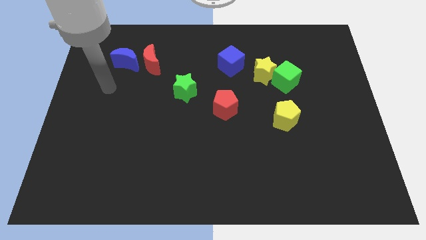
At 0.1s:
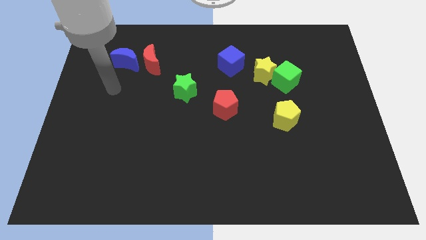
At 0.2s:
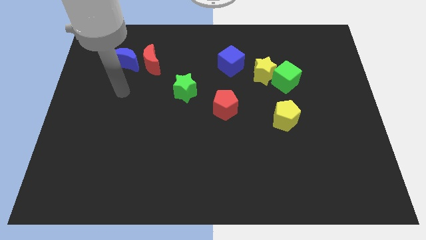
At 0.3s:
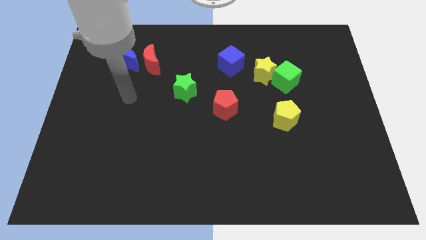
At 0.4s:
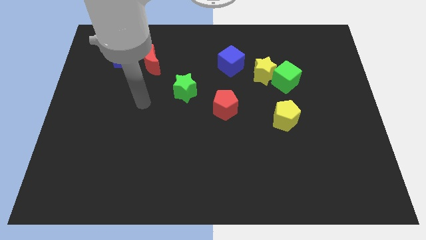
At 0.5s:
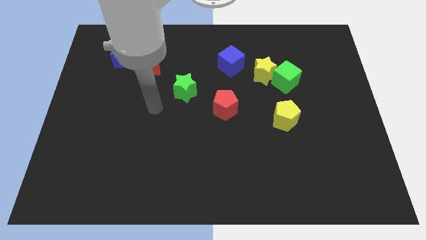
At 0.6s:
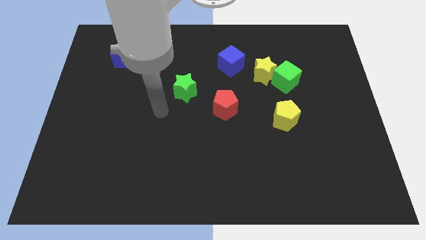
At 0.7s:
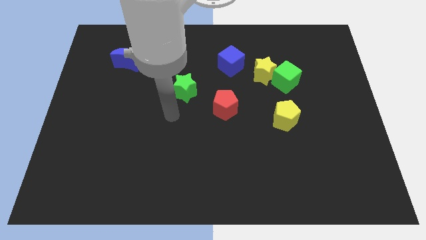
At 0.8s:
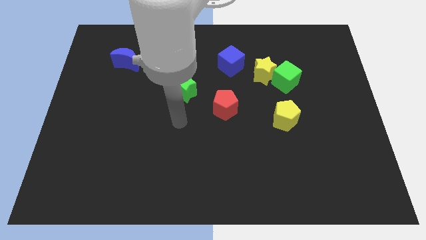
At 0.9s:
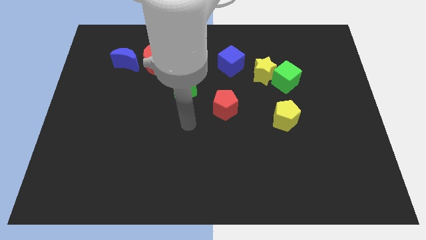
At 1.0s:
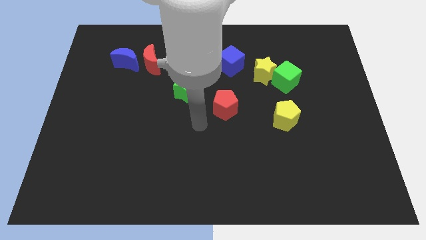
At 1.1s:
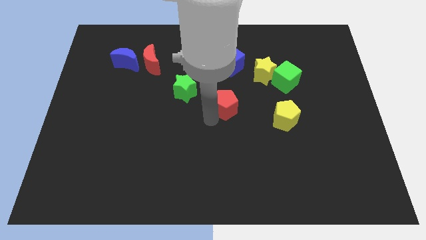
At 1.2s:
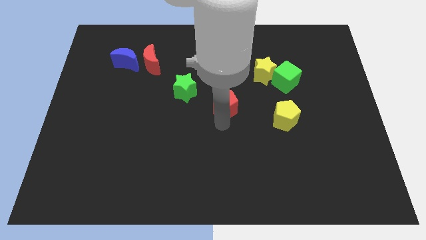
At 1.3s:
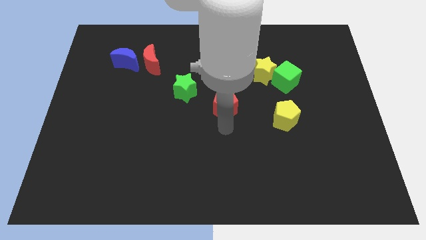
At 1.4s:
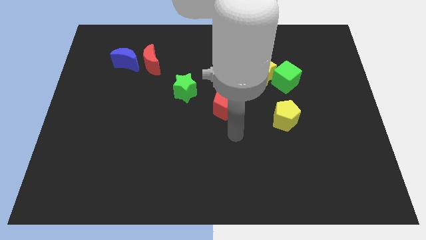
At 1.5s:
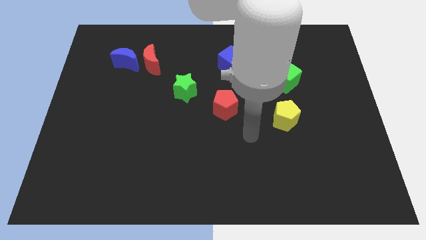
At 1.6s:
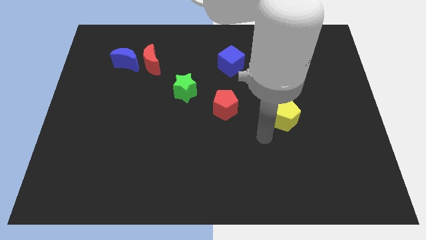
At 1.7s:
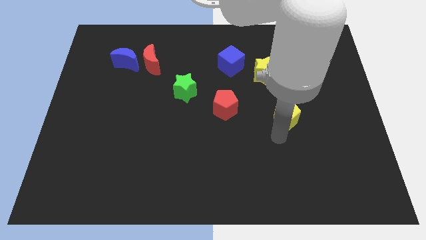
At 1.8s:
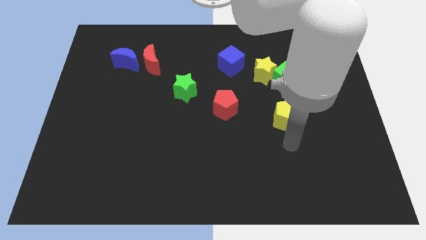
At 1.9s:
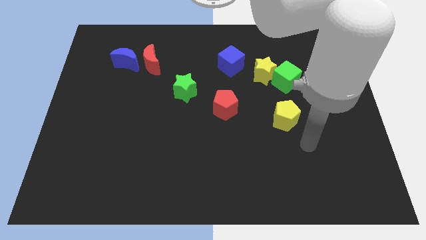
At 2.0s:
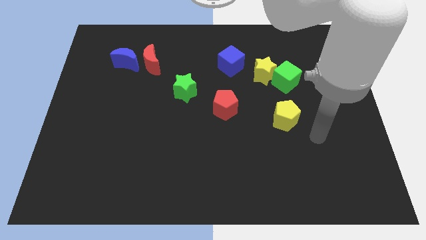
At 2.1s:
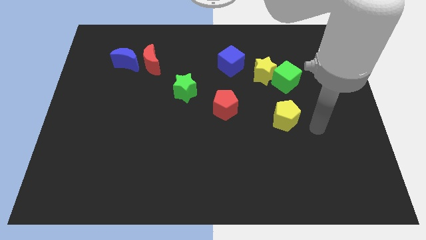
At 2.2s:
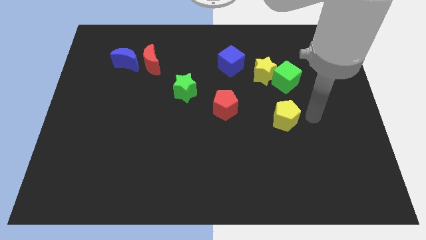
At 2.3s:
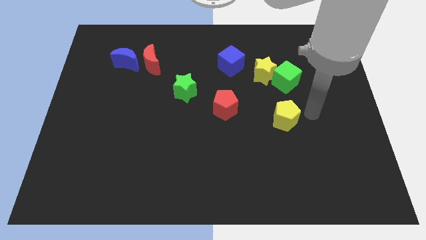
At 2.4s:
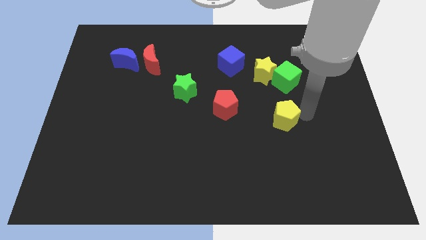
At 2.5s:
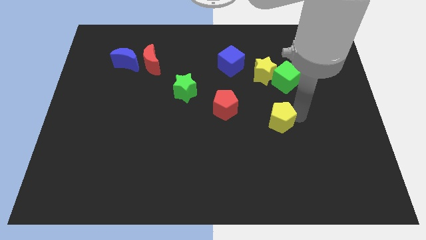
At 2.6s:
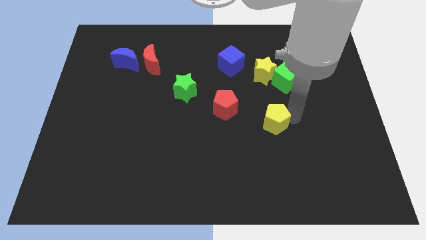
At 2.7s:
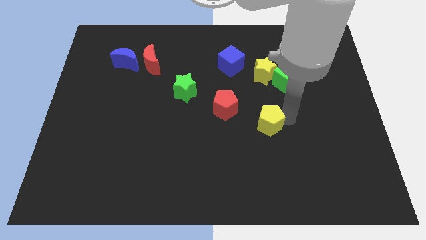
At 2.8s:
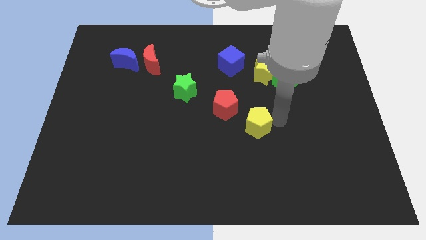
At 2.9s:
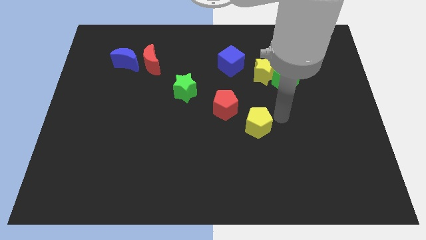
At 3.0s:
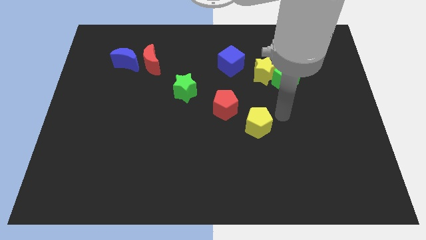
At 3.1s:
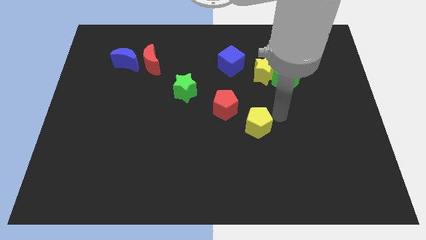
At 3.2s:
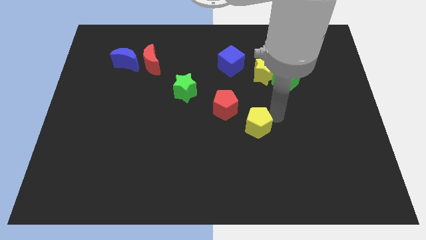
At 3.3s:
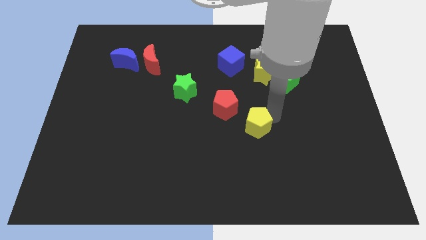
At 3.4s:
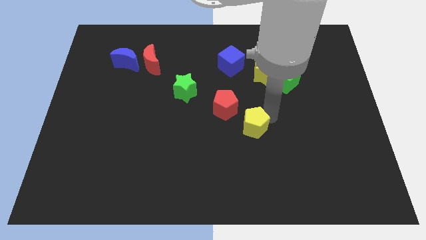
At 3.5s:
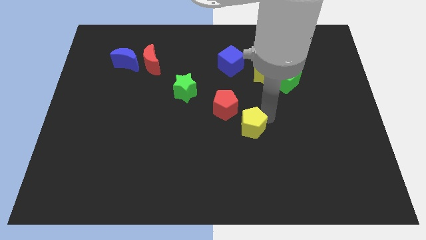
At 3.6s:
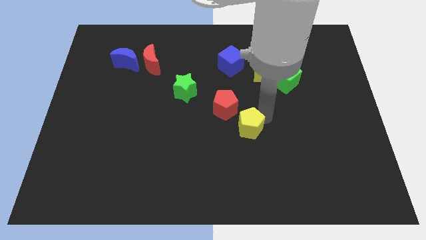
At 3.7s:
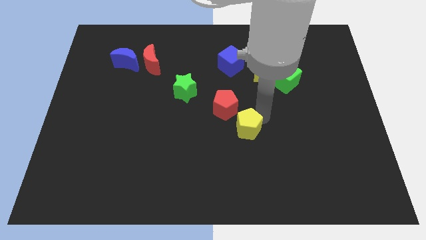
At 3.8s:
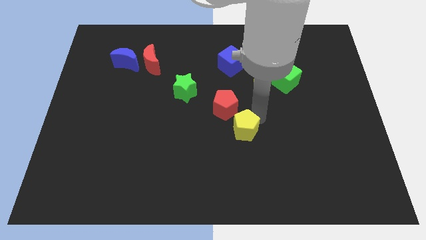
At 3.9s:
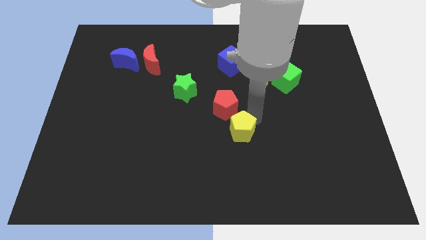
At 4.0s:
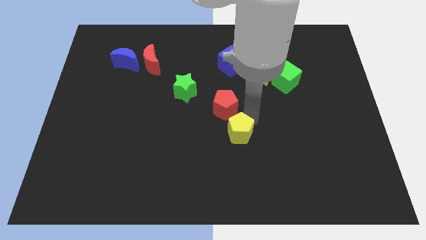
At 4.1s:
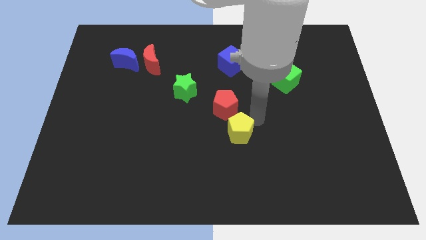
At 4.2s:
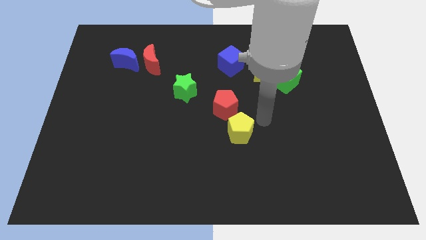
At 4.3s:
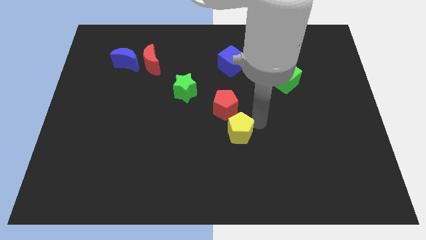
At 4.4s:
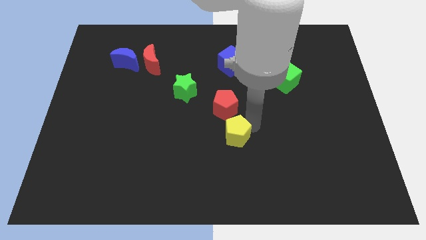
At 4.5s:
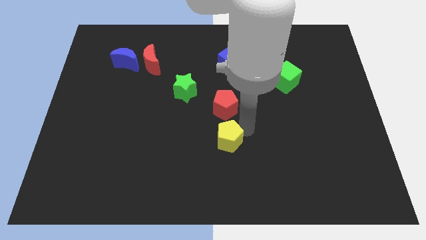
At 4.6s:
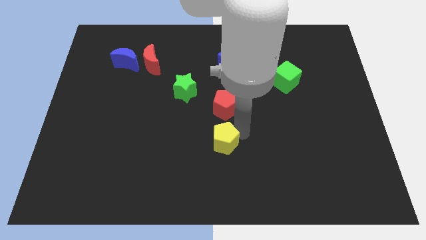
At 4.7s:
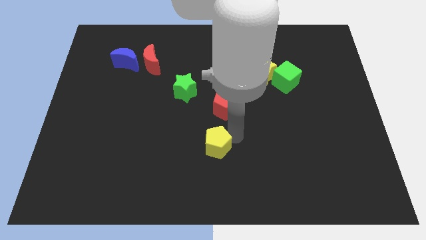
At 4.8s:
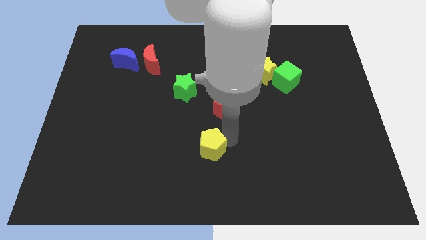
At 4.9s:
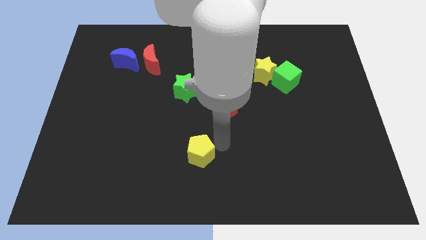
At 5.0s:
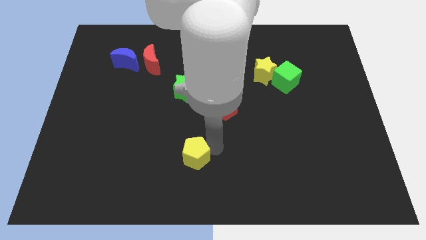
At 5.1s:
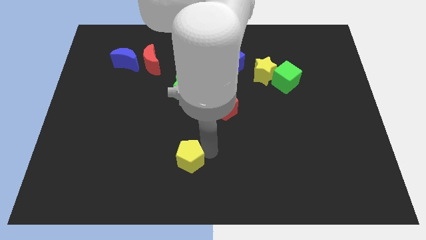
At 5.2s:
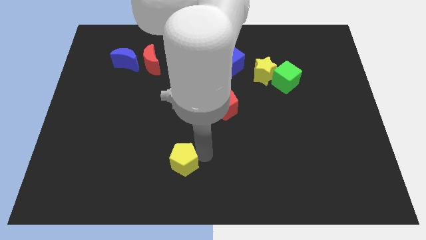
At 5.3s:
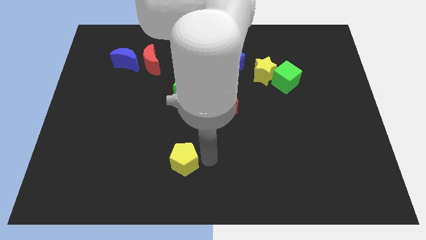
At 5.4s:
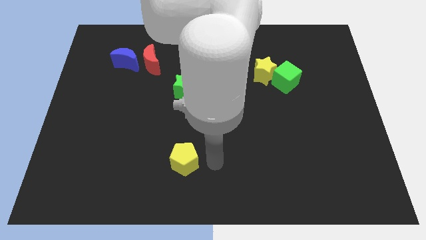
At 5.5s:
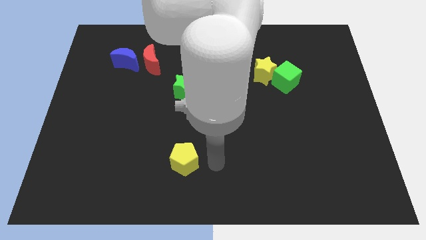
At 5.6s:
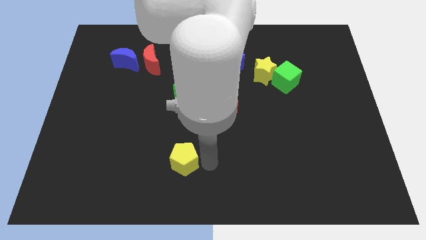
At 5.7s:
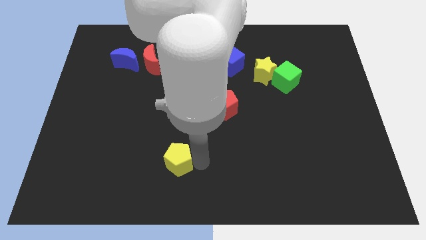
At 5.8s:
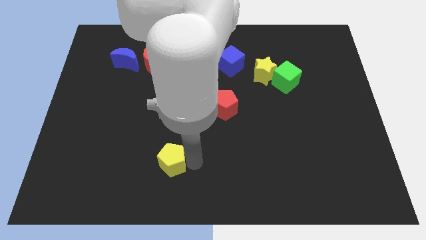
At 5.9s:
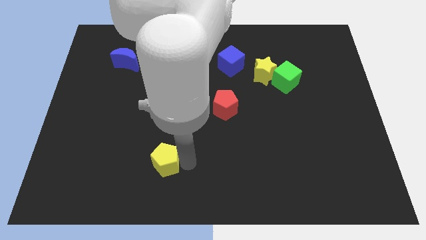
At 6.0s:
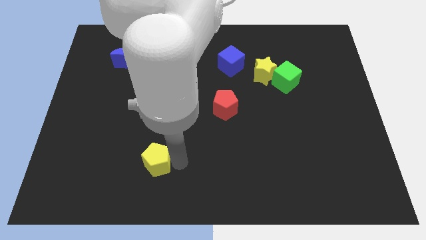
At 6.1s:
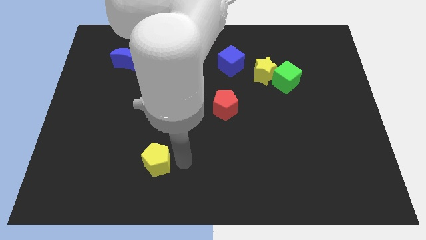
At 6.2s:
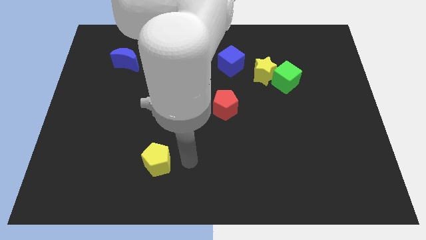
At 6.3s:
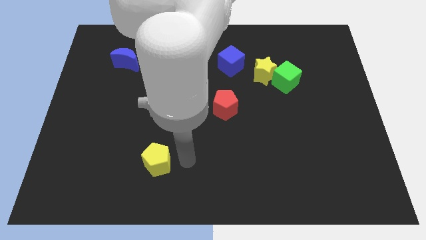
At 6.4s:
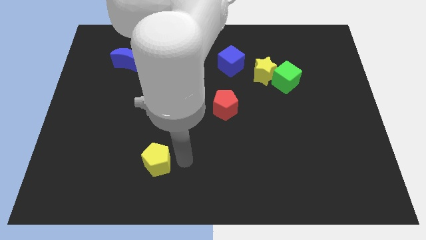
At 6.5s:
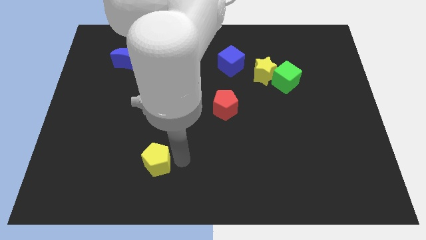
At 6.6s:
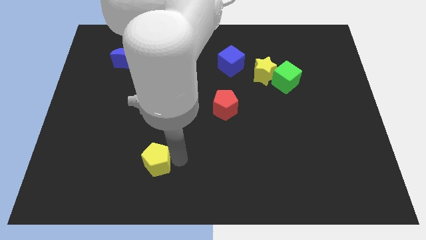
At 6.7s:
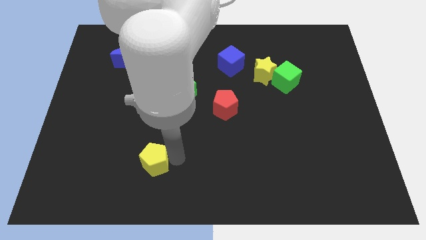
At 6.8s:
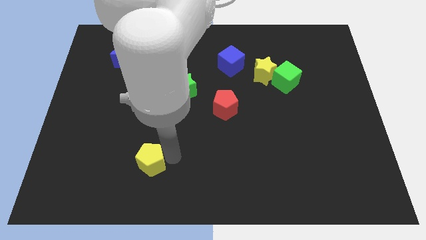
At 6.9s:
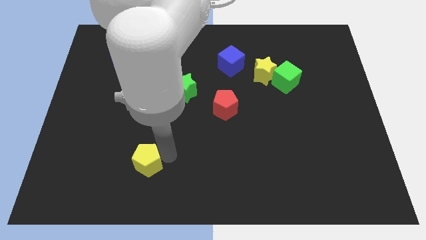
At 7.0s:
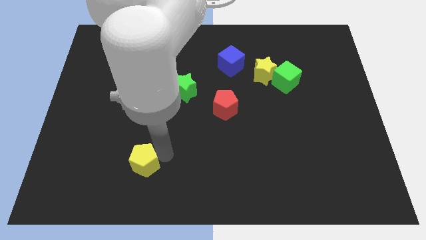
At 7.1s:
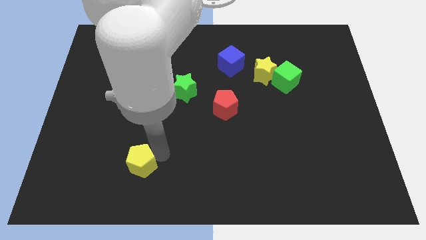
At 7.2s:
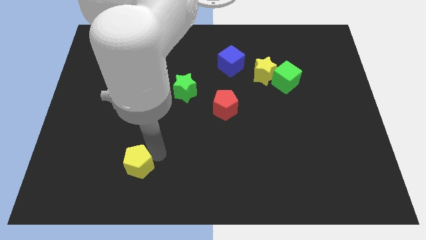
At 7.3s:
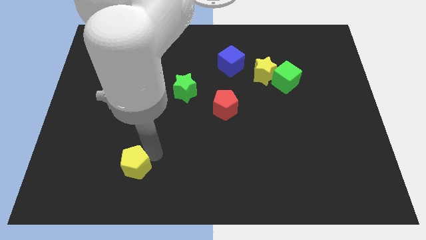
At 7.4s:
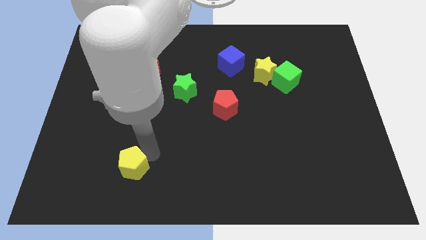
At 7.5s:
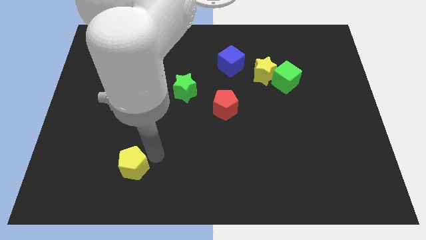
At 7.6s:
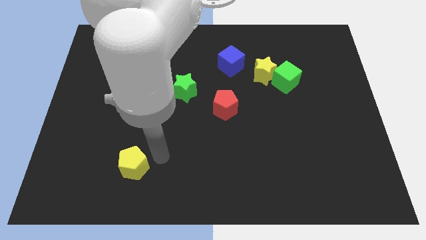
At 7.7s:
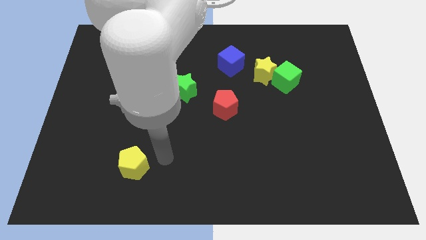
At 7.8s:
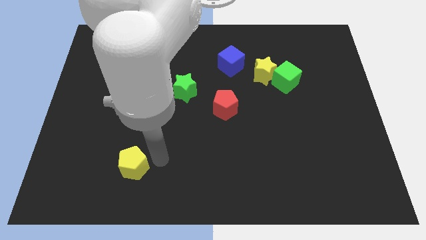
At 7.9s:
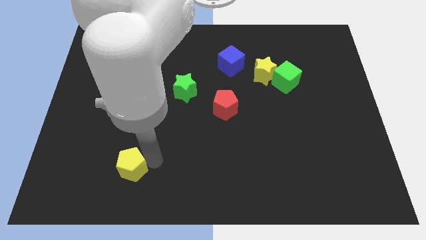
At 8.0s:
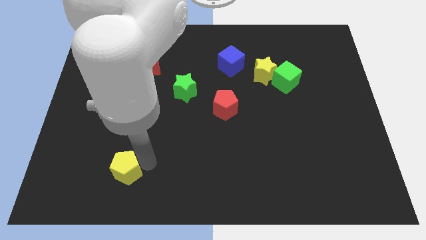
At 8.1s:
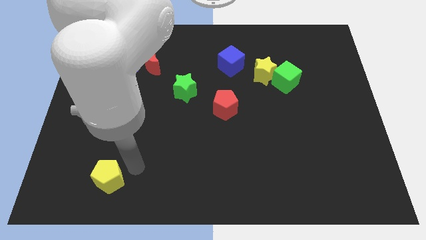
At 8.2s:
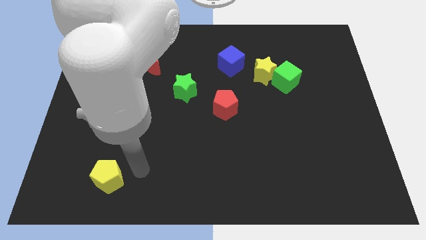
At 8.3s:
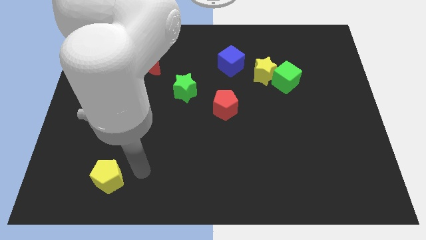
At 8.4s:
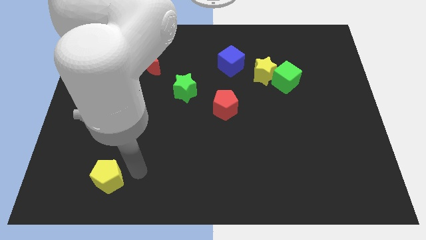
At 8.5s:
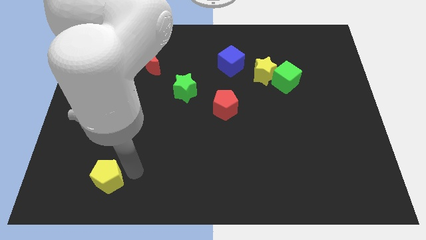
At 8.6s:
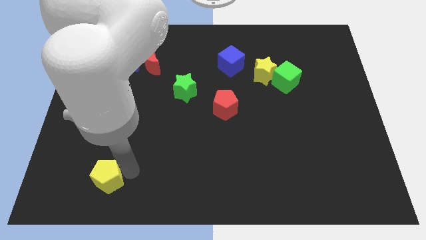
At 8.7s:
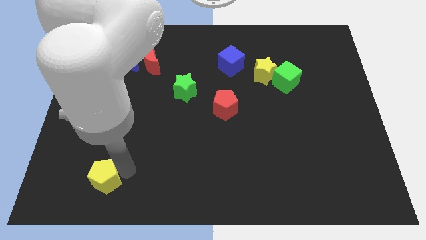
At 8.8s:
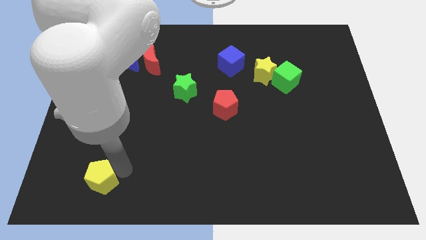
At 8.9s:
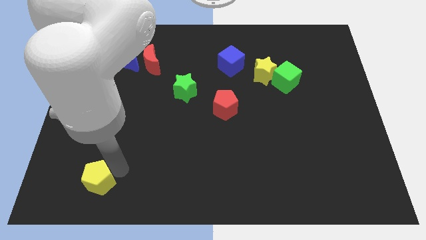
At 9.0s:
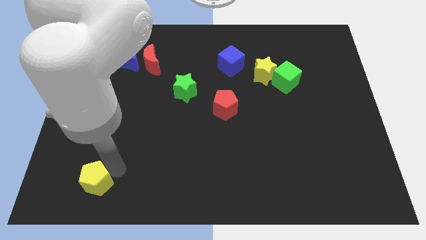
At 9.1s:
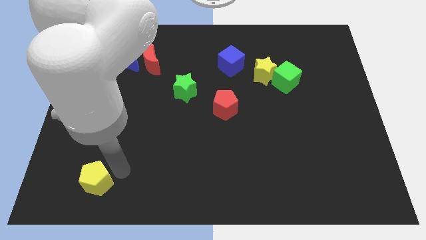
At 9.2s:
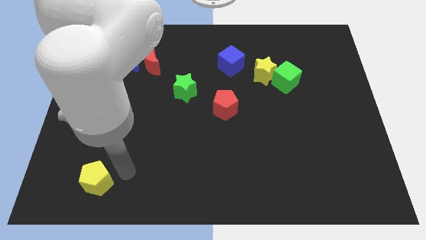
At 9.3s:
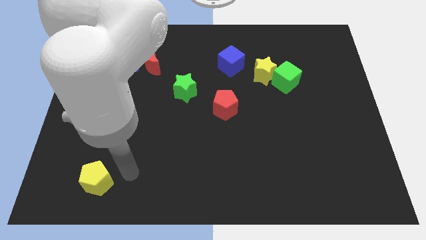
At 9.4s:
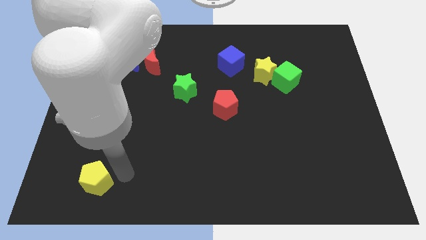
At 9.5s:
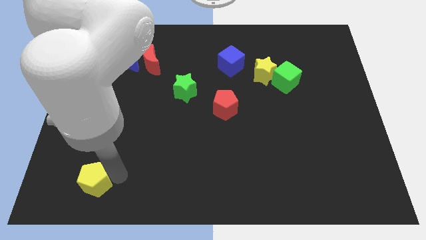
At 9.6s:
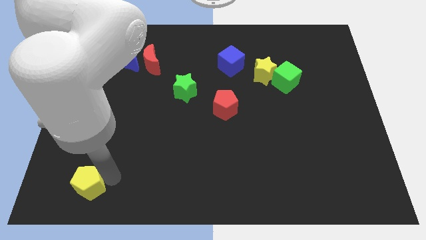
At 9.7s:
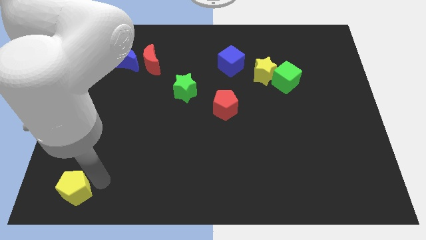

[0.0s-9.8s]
move the yellow pentagon to the bottom left
